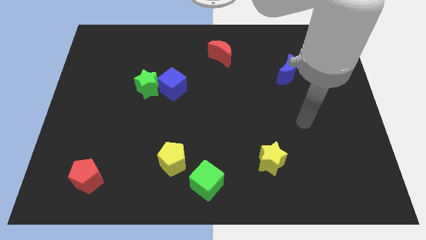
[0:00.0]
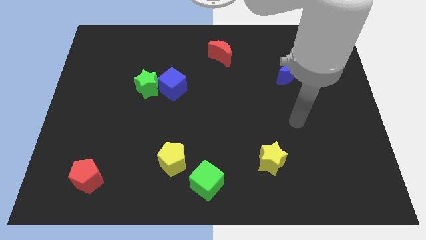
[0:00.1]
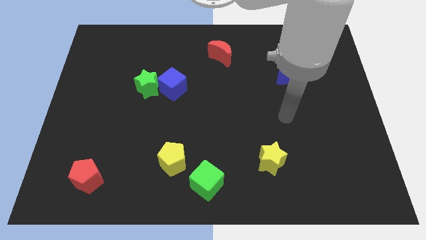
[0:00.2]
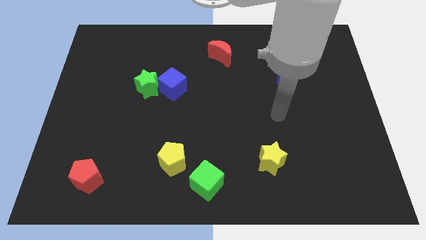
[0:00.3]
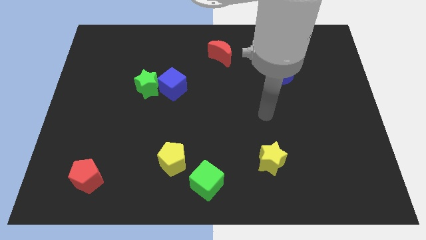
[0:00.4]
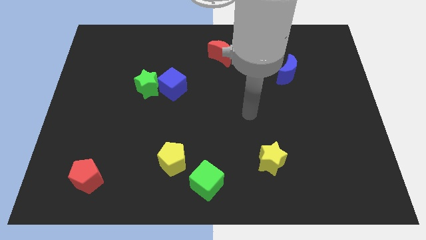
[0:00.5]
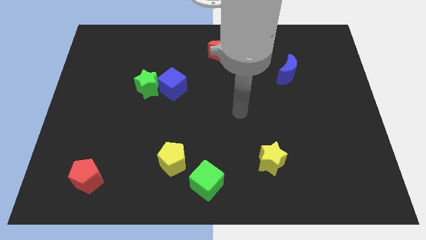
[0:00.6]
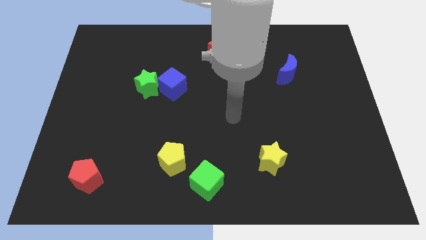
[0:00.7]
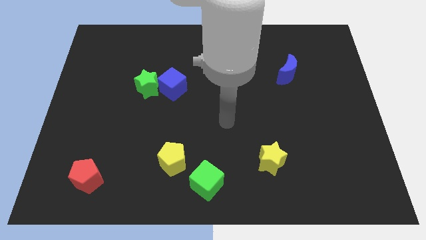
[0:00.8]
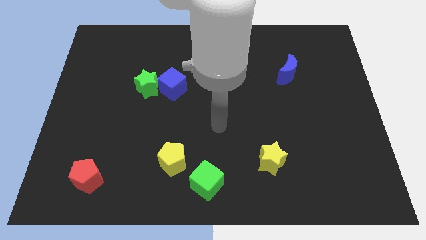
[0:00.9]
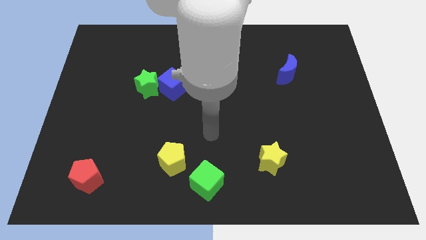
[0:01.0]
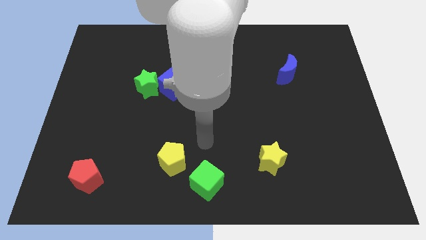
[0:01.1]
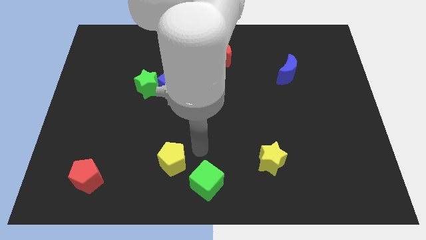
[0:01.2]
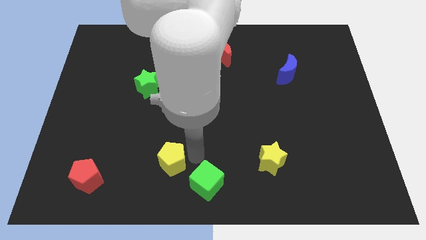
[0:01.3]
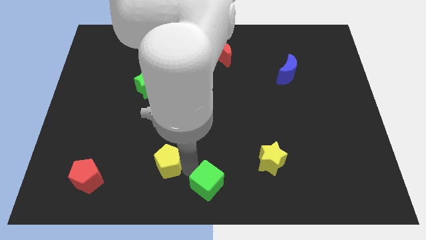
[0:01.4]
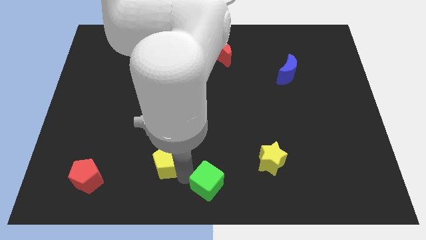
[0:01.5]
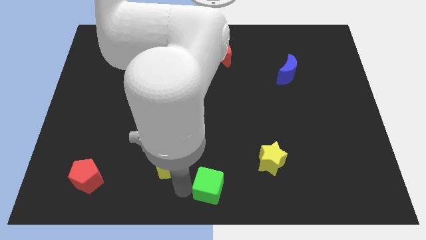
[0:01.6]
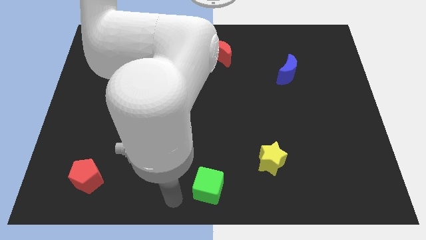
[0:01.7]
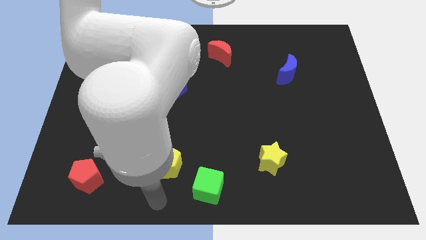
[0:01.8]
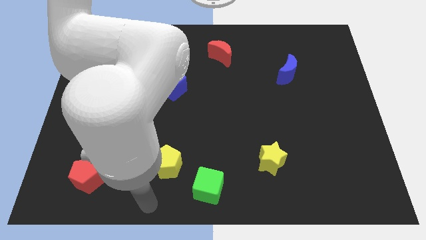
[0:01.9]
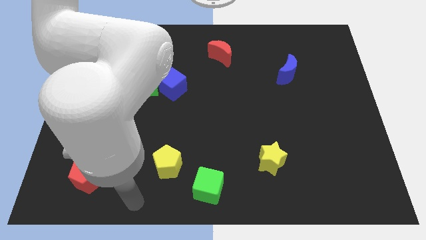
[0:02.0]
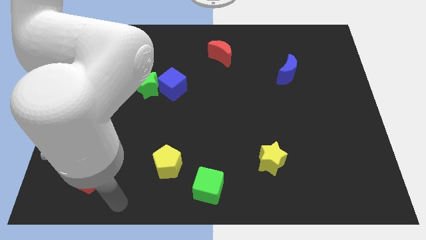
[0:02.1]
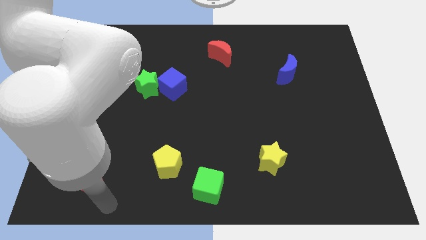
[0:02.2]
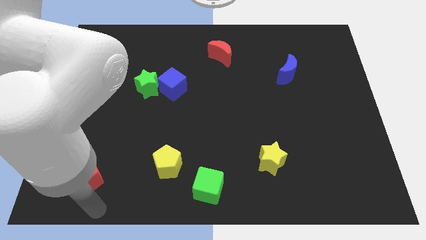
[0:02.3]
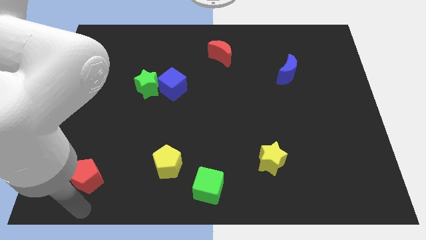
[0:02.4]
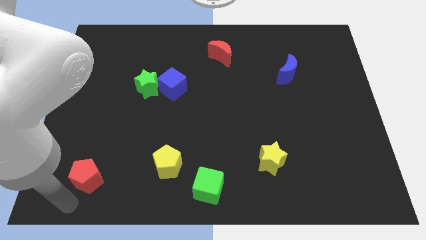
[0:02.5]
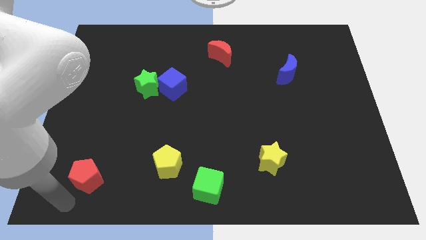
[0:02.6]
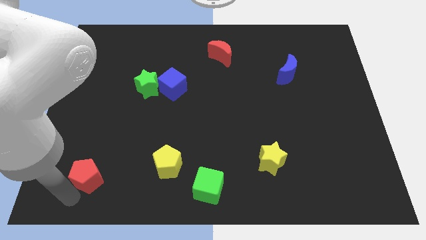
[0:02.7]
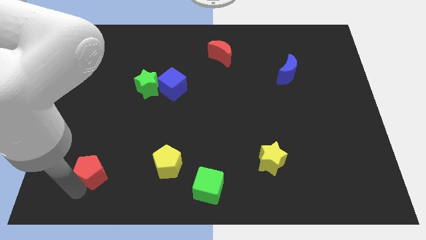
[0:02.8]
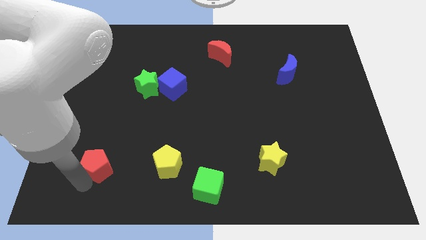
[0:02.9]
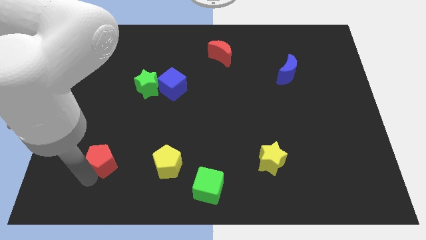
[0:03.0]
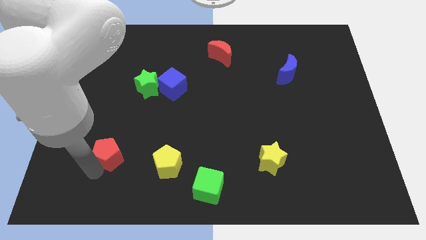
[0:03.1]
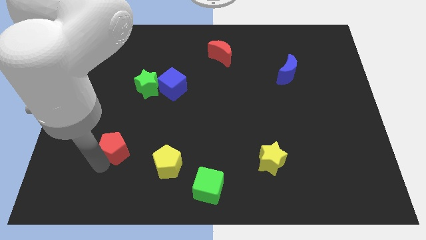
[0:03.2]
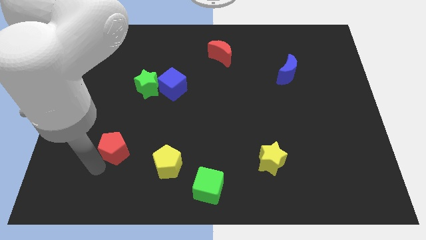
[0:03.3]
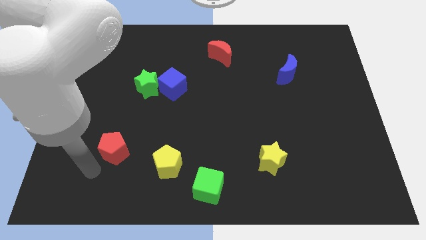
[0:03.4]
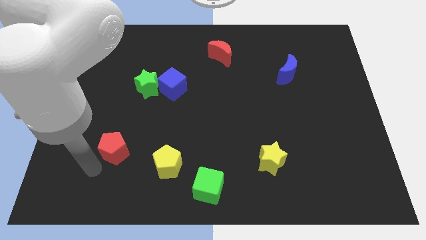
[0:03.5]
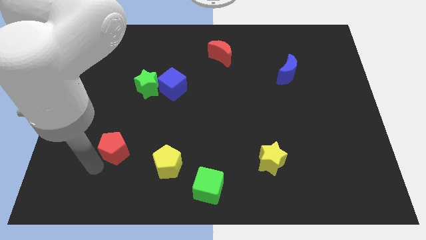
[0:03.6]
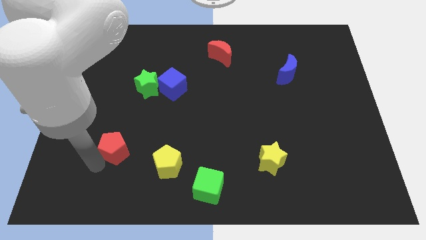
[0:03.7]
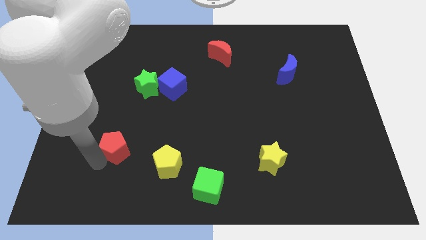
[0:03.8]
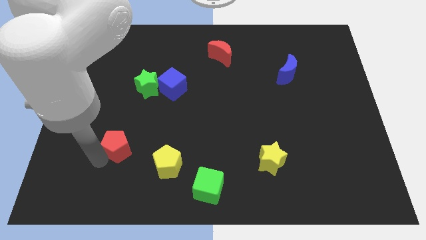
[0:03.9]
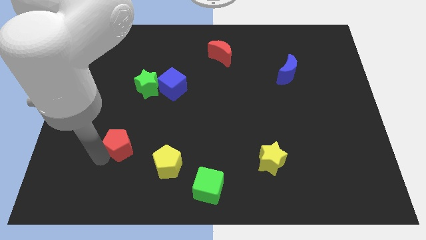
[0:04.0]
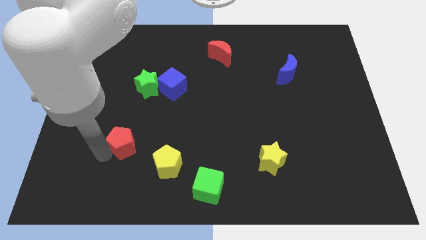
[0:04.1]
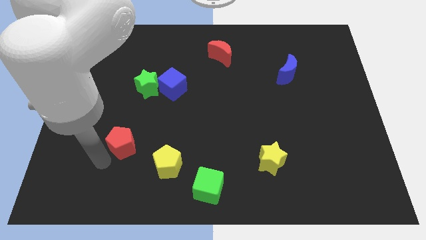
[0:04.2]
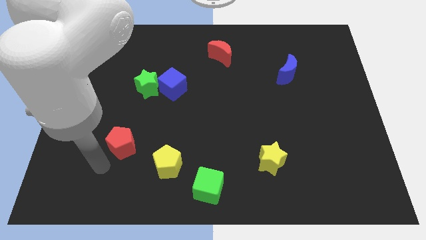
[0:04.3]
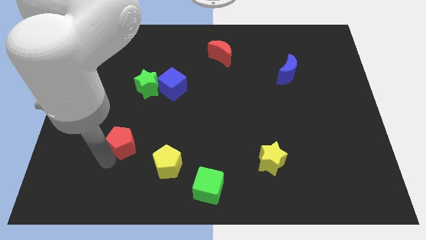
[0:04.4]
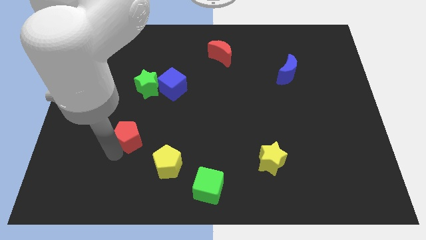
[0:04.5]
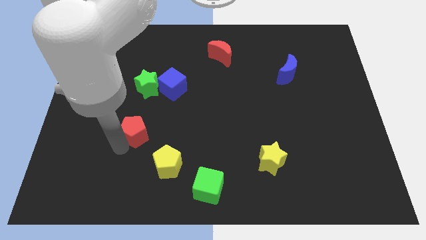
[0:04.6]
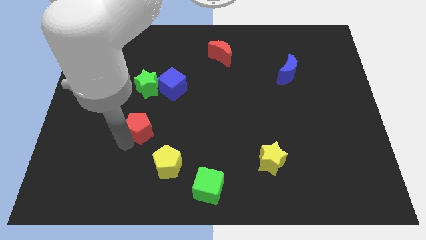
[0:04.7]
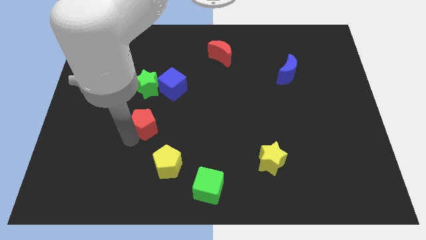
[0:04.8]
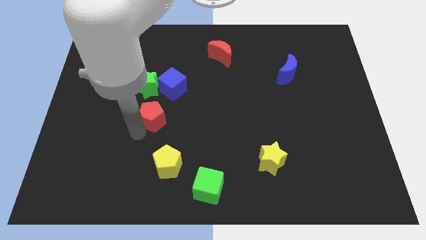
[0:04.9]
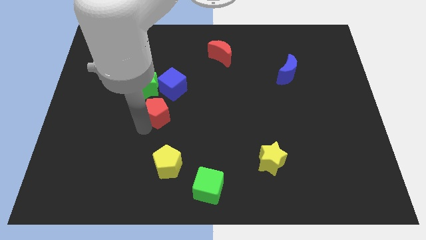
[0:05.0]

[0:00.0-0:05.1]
slide the red pentagon to the bottom right of the green star

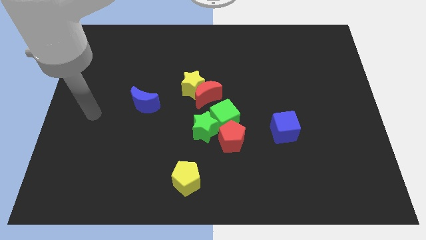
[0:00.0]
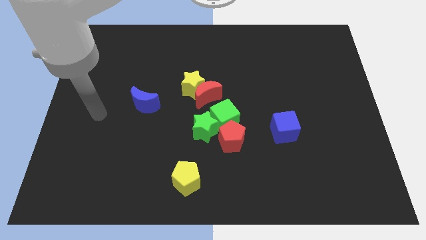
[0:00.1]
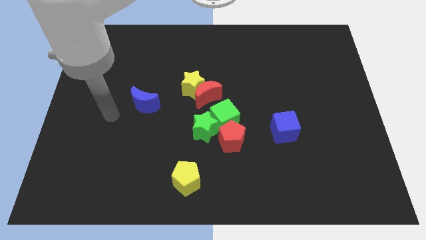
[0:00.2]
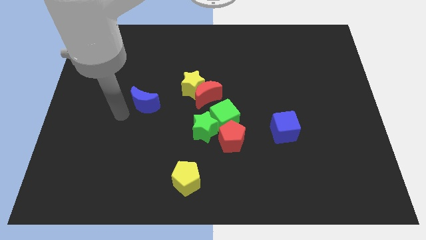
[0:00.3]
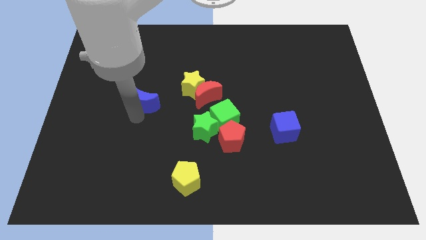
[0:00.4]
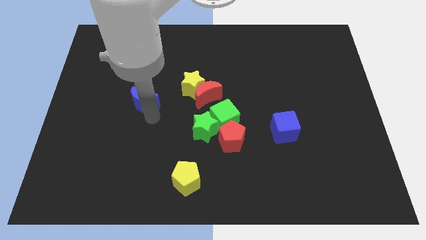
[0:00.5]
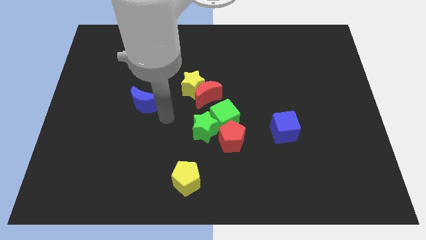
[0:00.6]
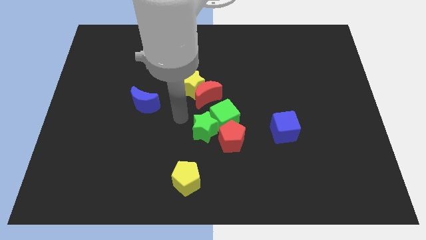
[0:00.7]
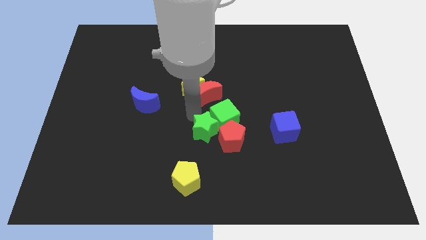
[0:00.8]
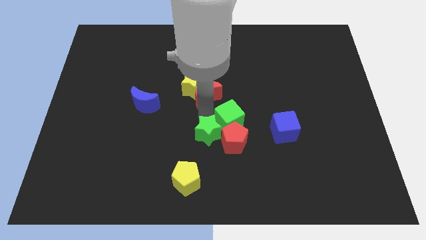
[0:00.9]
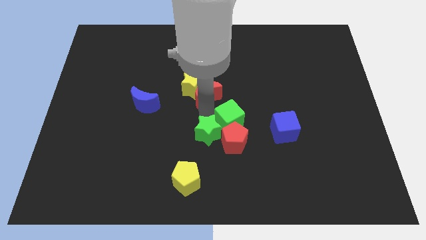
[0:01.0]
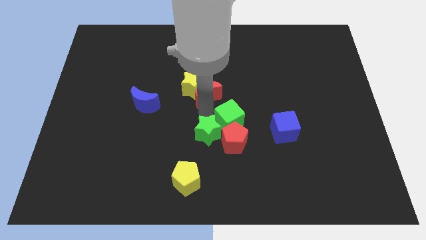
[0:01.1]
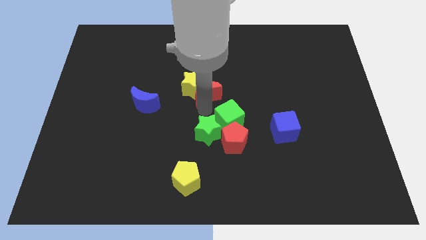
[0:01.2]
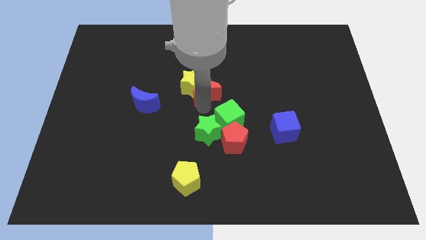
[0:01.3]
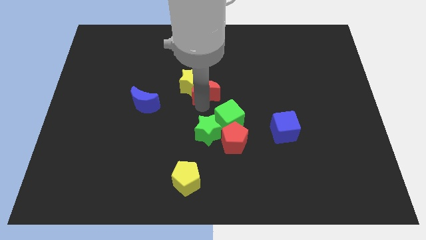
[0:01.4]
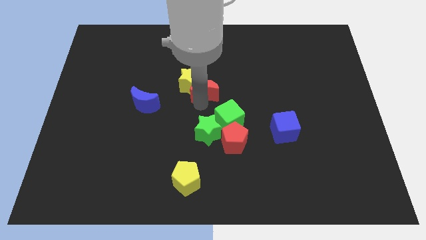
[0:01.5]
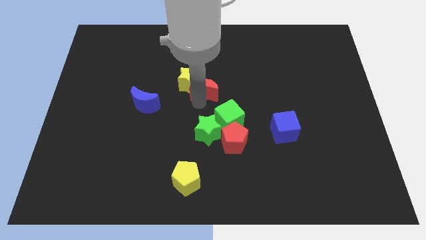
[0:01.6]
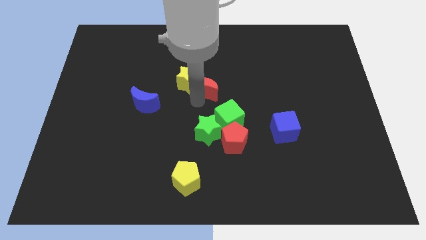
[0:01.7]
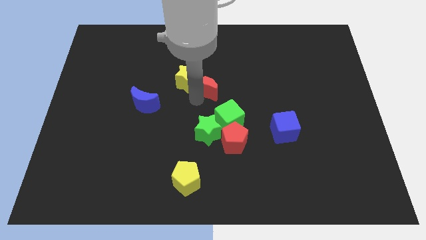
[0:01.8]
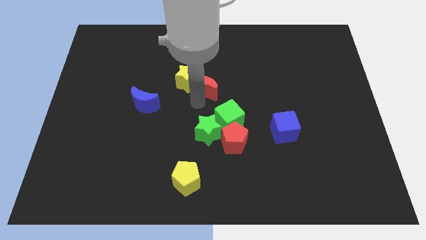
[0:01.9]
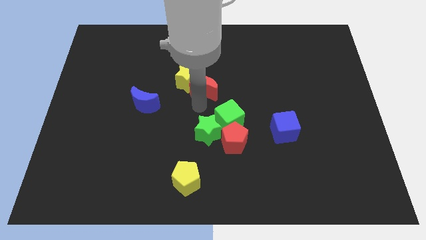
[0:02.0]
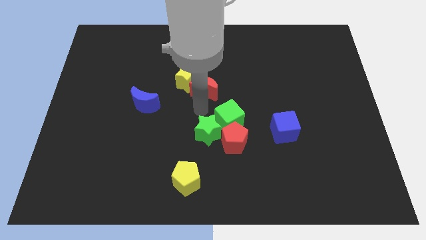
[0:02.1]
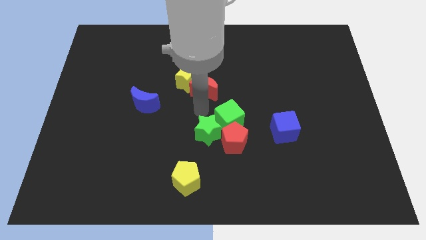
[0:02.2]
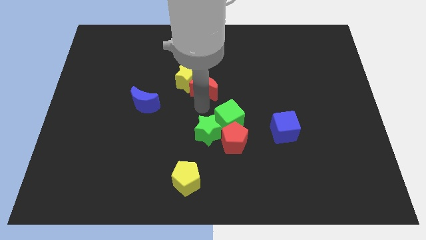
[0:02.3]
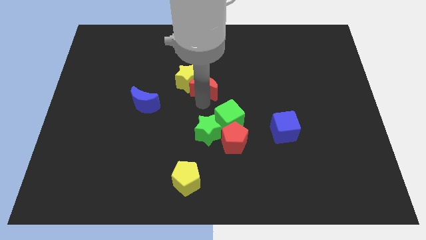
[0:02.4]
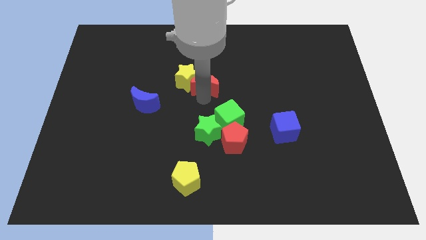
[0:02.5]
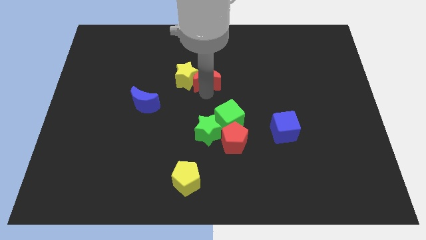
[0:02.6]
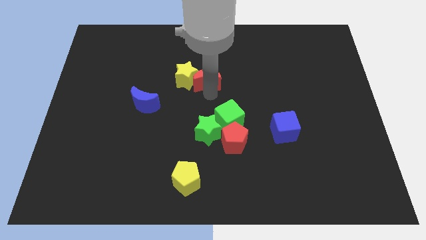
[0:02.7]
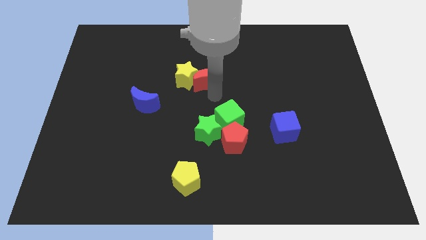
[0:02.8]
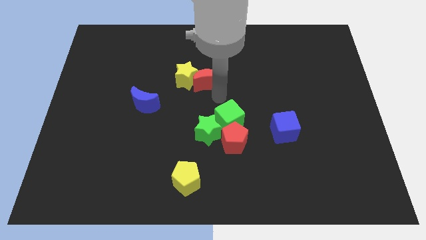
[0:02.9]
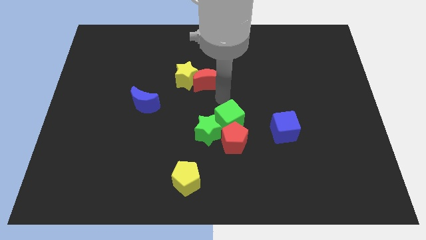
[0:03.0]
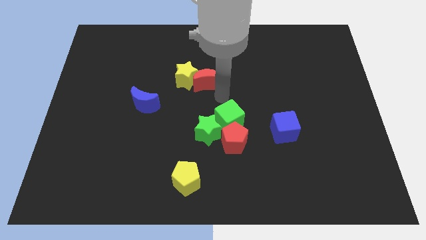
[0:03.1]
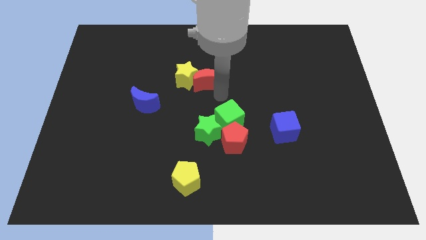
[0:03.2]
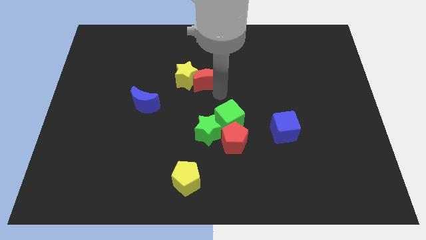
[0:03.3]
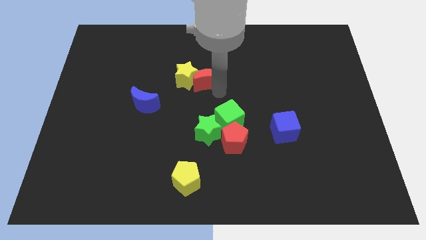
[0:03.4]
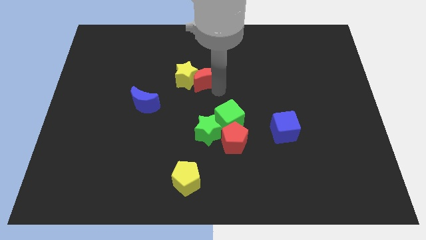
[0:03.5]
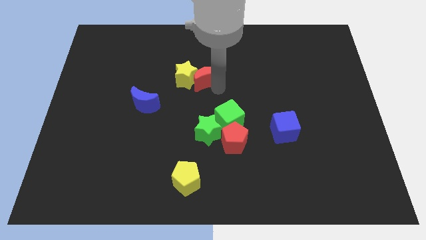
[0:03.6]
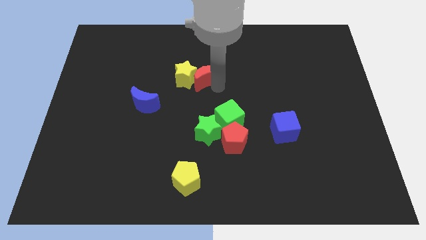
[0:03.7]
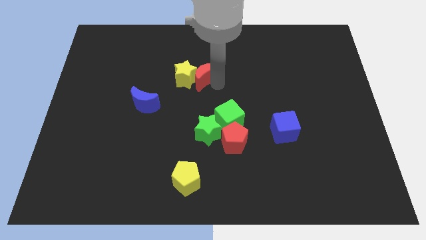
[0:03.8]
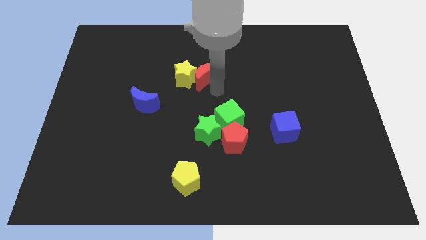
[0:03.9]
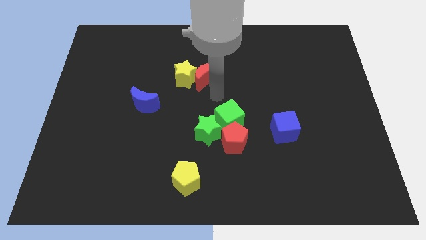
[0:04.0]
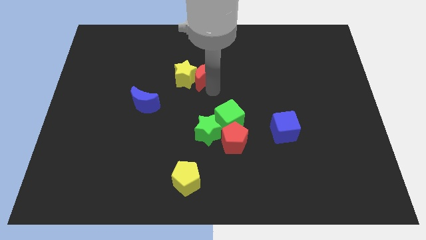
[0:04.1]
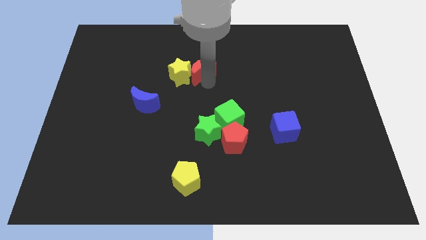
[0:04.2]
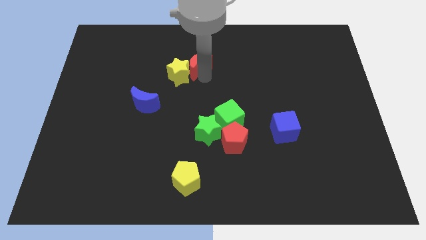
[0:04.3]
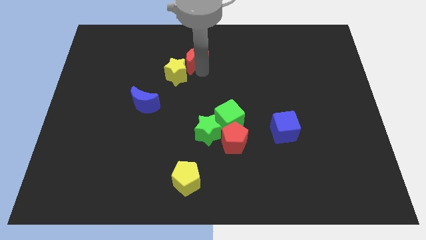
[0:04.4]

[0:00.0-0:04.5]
push the red moon to the top of the yellow star
